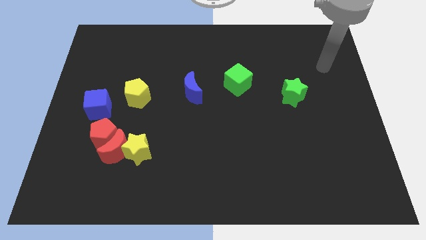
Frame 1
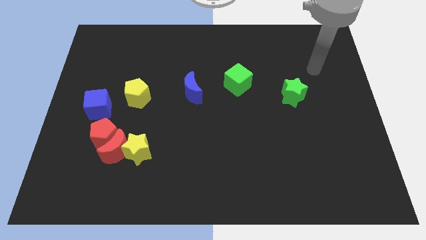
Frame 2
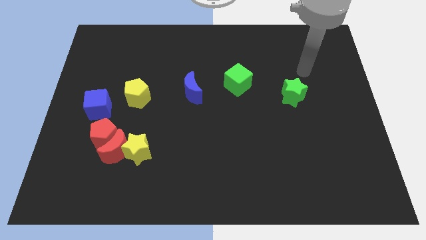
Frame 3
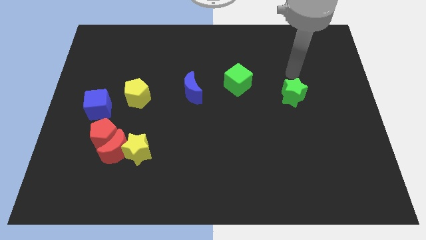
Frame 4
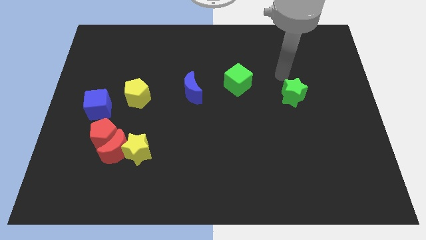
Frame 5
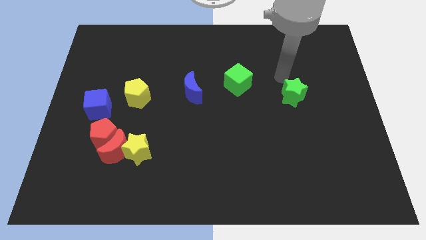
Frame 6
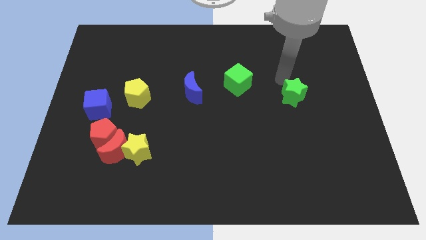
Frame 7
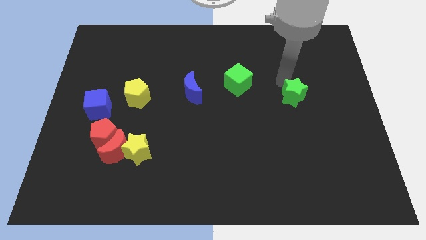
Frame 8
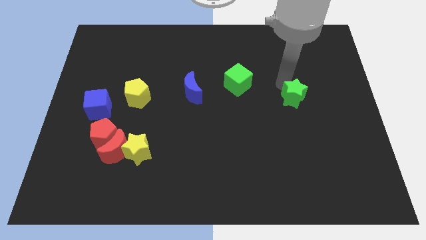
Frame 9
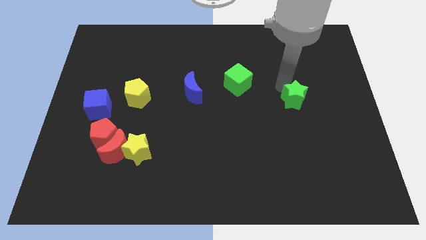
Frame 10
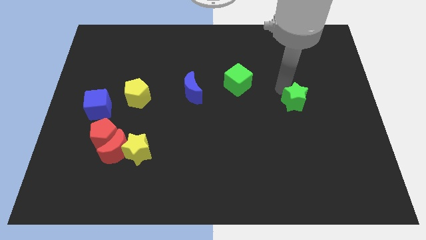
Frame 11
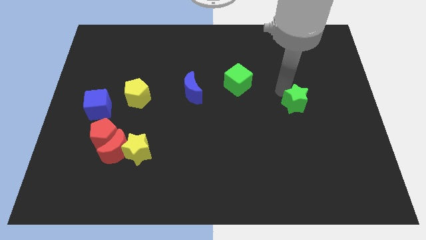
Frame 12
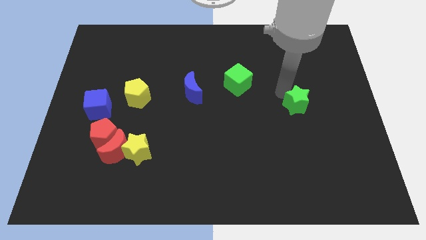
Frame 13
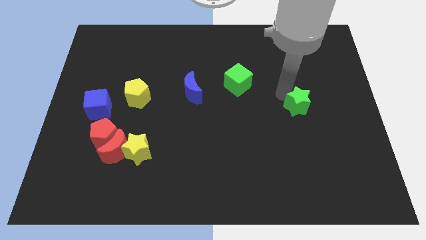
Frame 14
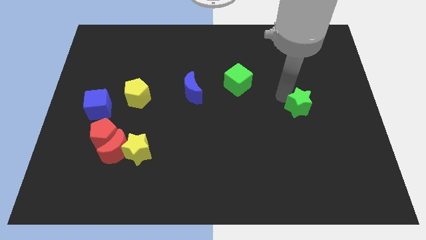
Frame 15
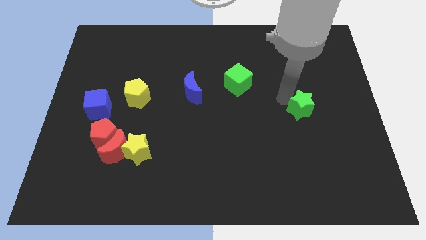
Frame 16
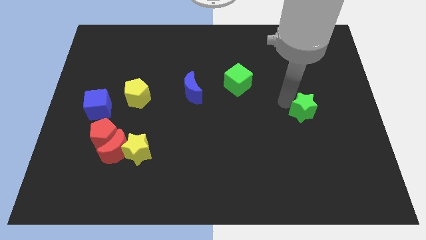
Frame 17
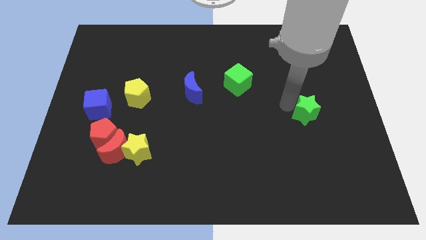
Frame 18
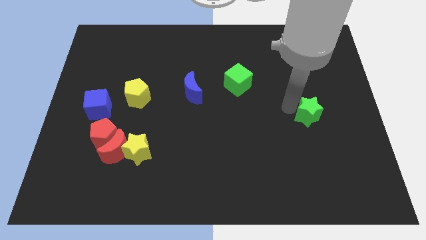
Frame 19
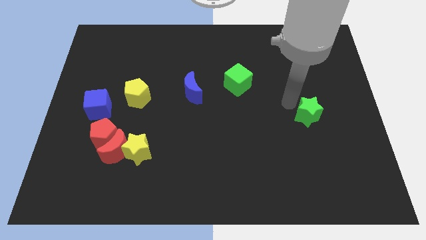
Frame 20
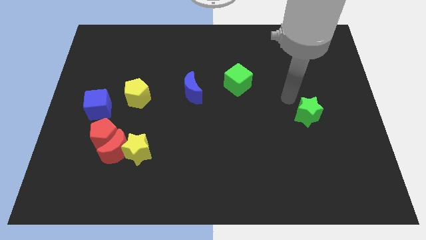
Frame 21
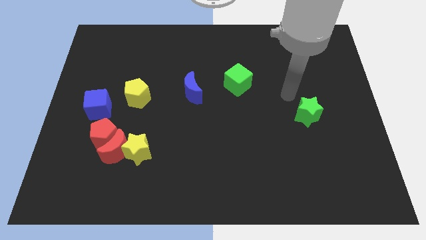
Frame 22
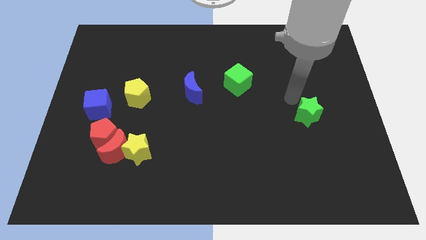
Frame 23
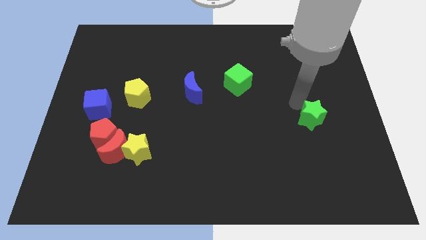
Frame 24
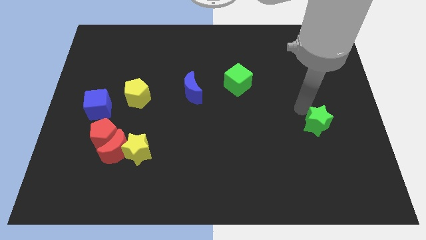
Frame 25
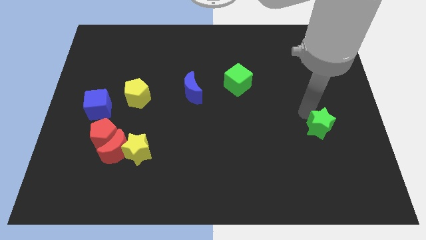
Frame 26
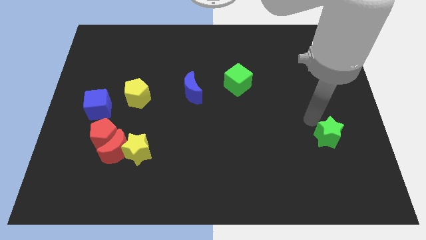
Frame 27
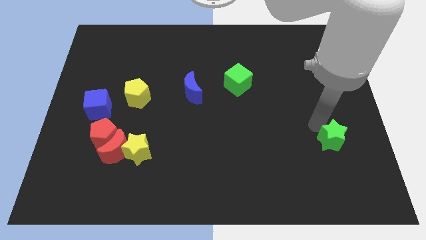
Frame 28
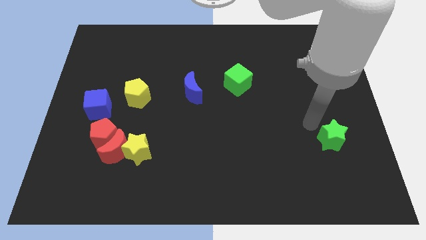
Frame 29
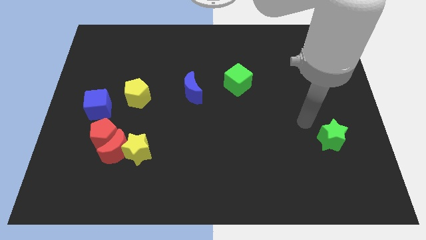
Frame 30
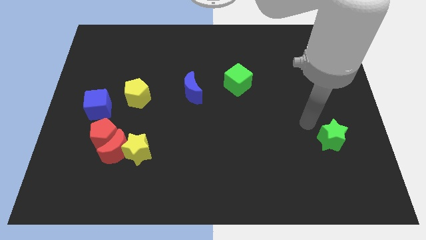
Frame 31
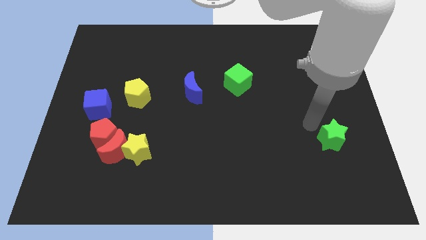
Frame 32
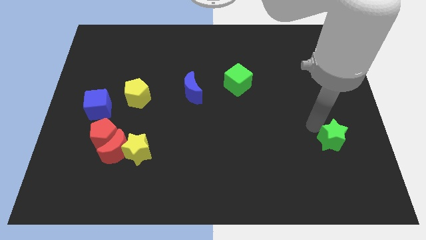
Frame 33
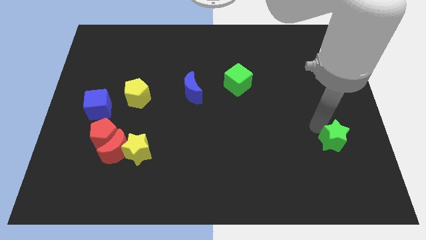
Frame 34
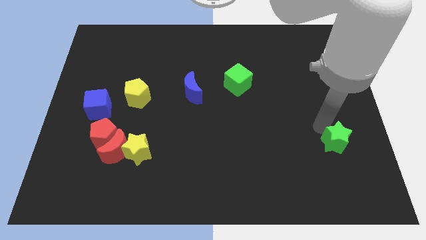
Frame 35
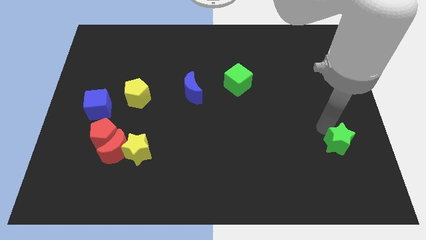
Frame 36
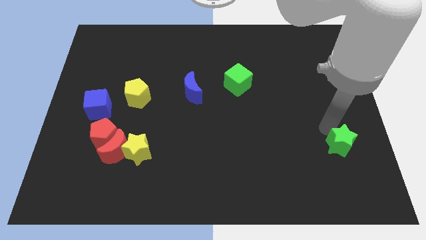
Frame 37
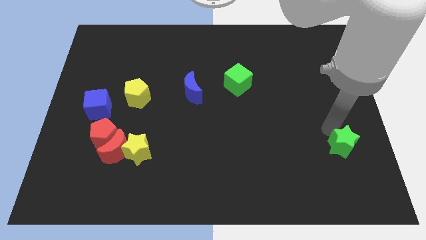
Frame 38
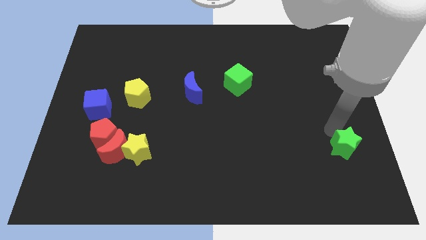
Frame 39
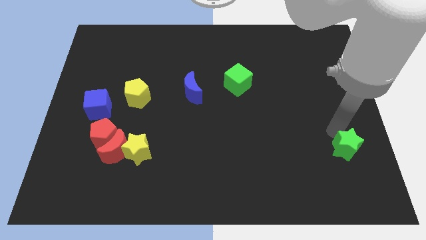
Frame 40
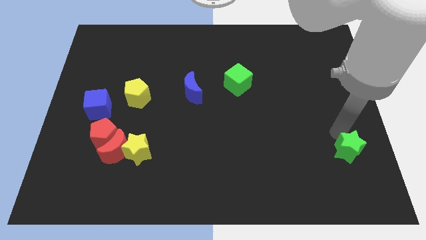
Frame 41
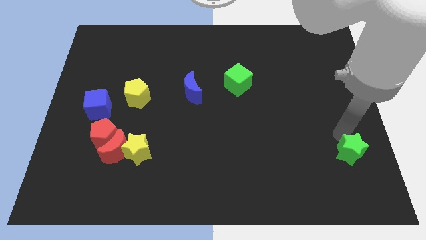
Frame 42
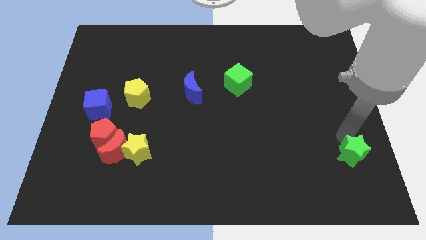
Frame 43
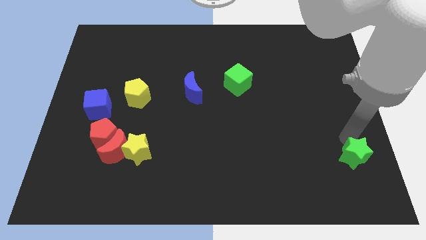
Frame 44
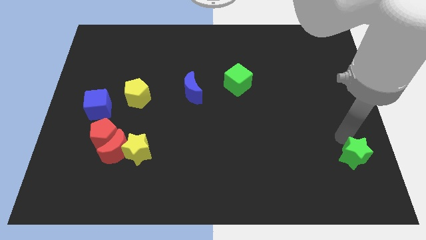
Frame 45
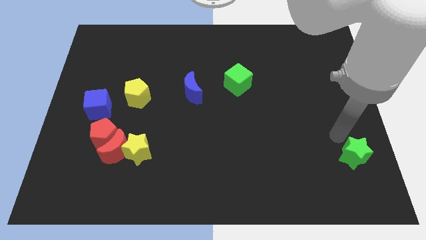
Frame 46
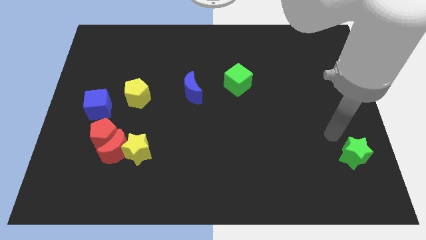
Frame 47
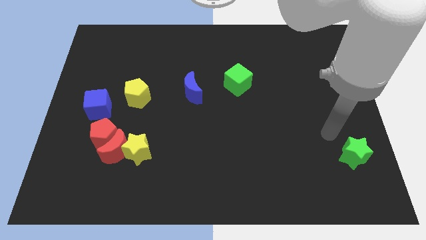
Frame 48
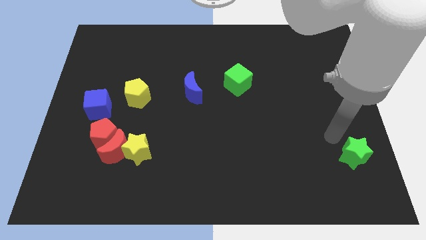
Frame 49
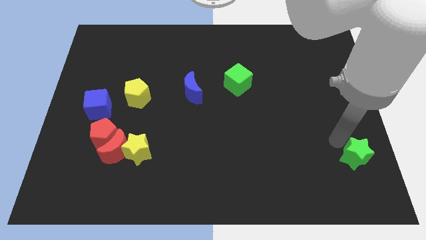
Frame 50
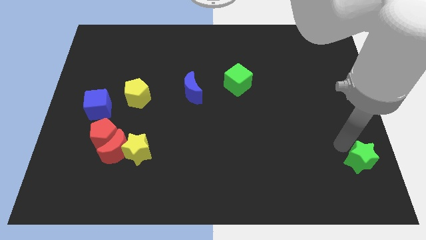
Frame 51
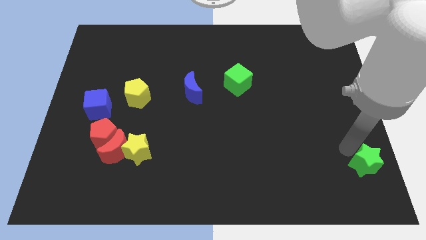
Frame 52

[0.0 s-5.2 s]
put the green star to the bottom right
